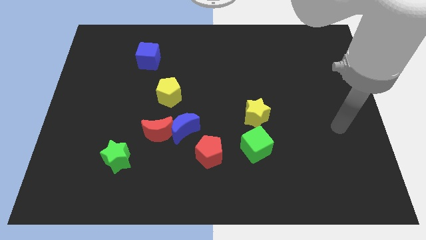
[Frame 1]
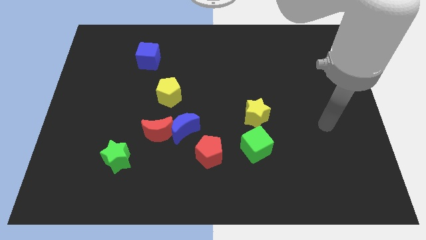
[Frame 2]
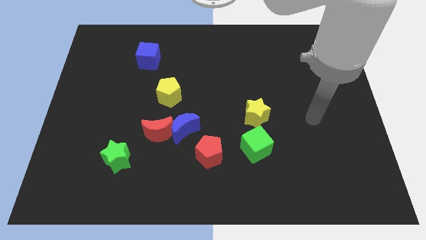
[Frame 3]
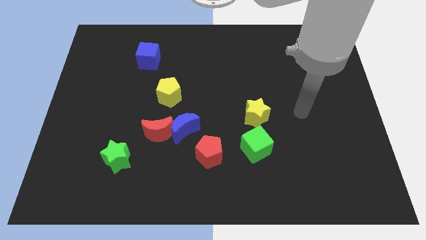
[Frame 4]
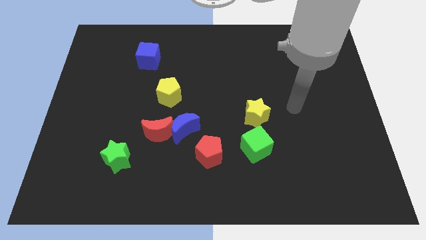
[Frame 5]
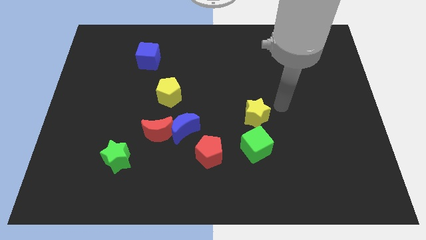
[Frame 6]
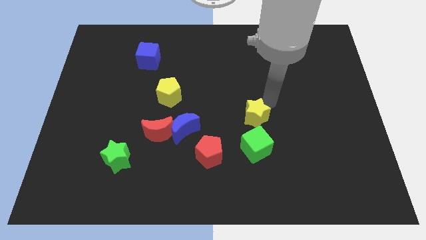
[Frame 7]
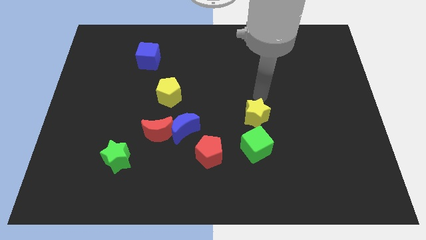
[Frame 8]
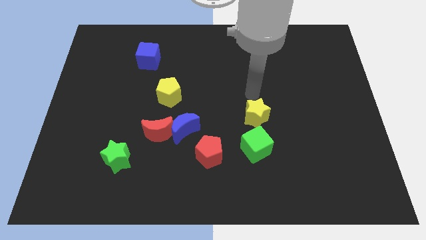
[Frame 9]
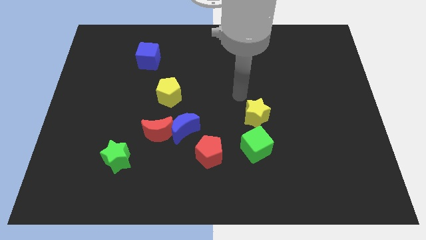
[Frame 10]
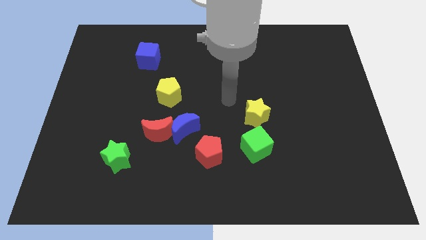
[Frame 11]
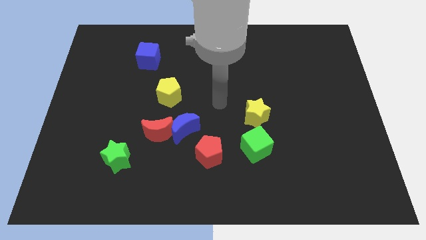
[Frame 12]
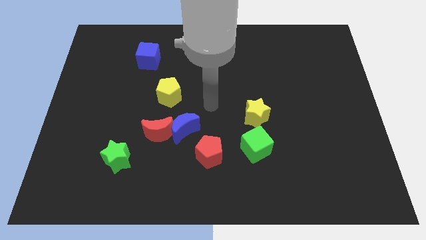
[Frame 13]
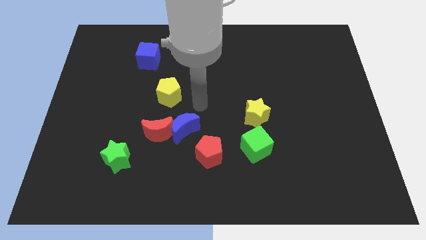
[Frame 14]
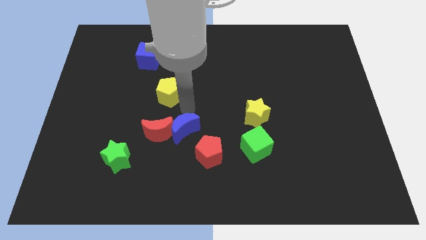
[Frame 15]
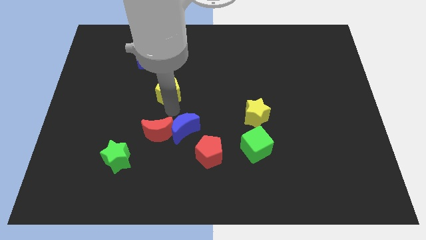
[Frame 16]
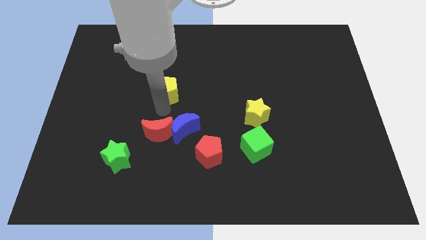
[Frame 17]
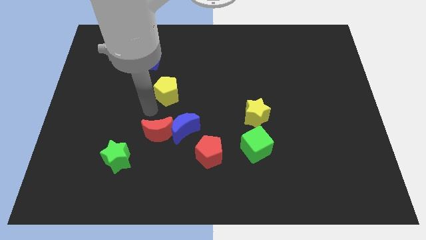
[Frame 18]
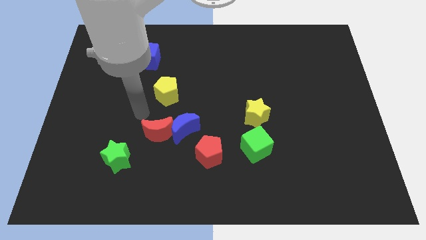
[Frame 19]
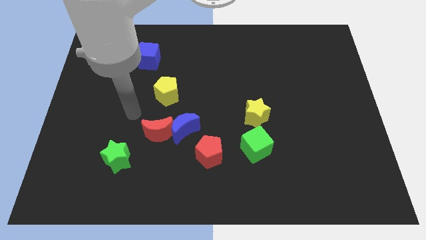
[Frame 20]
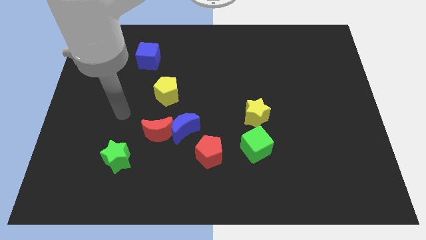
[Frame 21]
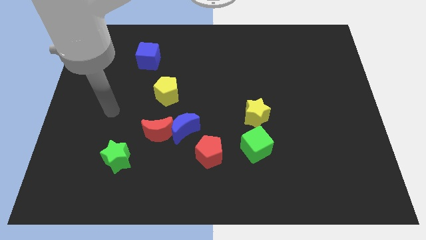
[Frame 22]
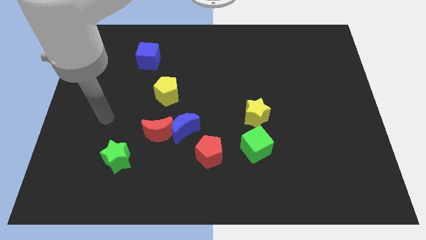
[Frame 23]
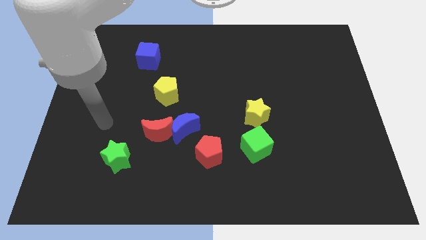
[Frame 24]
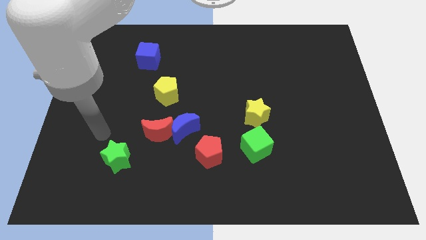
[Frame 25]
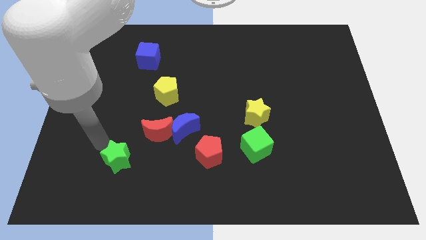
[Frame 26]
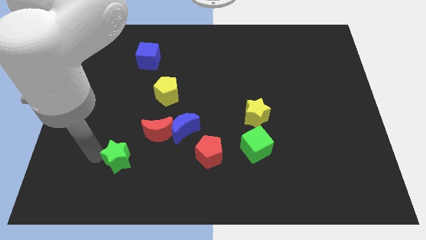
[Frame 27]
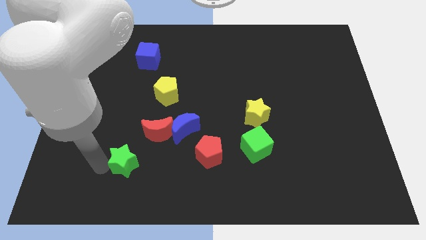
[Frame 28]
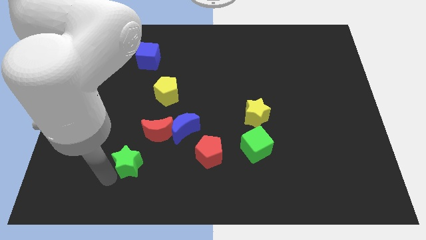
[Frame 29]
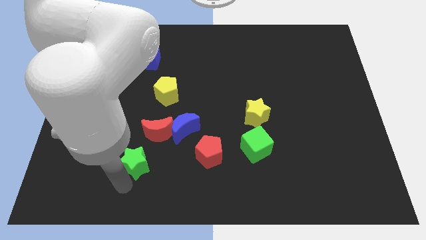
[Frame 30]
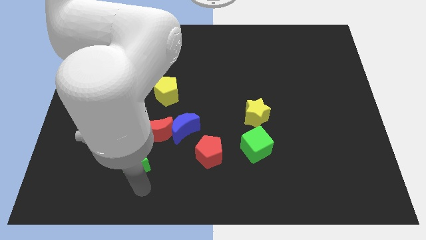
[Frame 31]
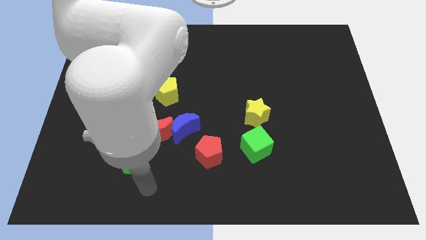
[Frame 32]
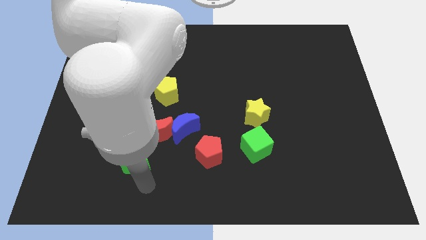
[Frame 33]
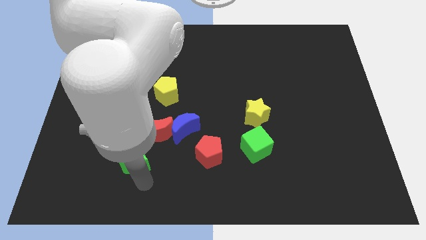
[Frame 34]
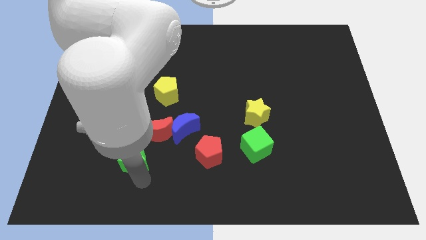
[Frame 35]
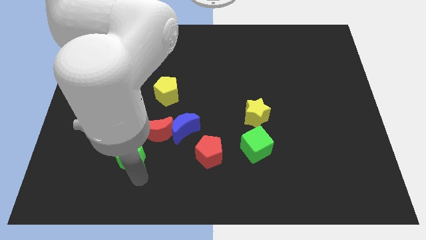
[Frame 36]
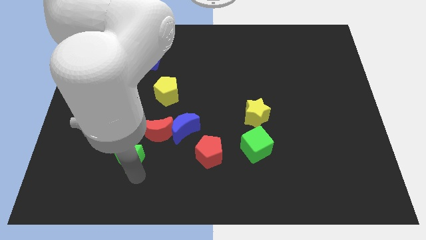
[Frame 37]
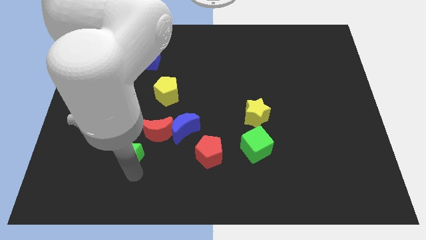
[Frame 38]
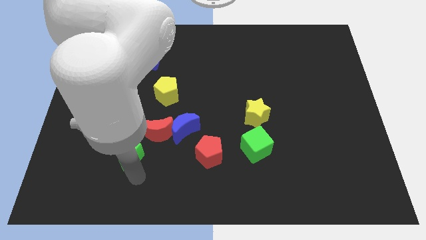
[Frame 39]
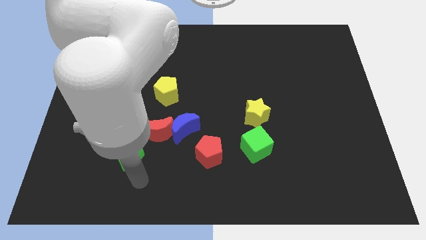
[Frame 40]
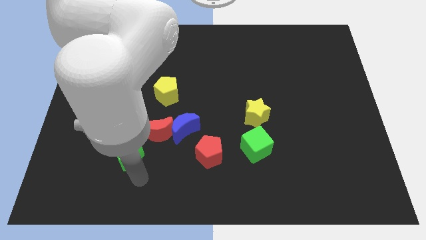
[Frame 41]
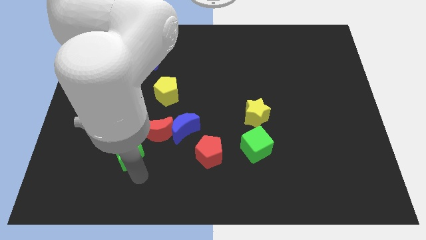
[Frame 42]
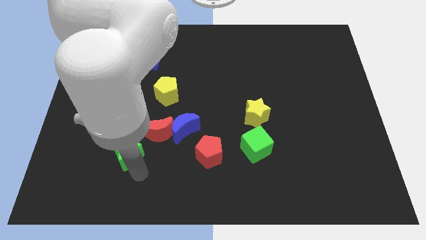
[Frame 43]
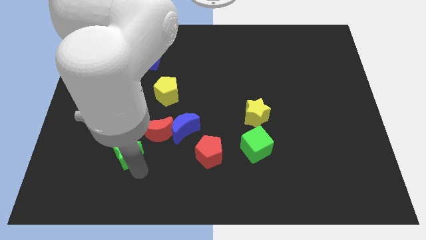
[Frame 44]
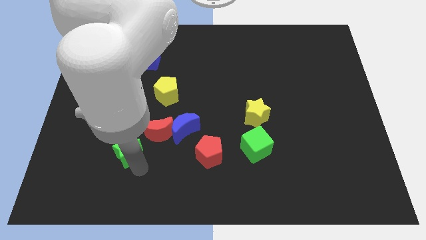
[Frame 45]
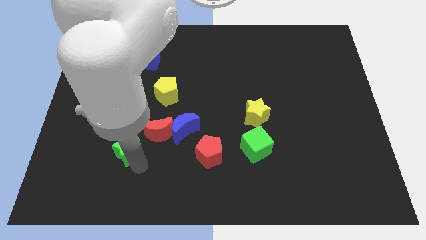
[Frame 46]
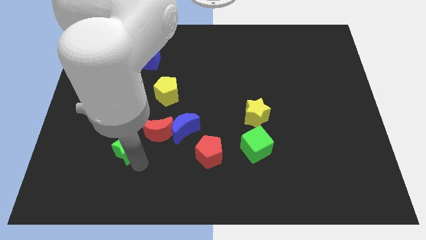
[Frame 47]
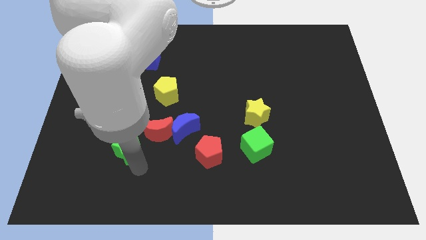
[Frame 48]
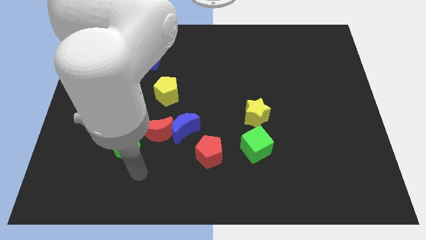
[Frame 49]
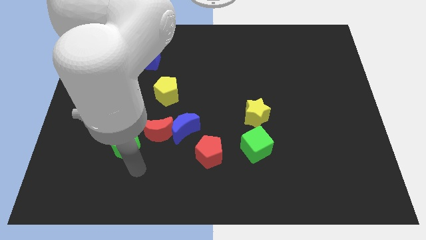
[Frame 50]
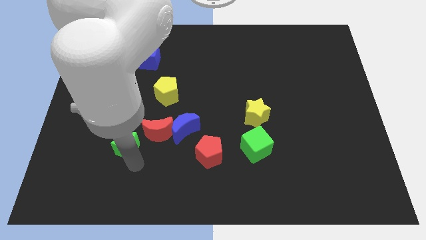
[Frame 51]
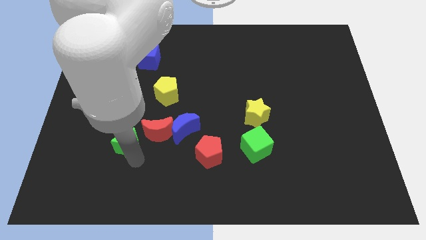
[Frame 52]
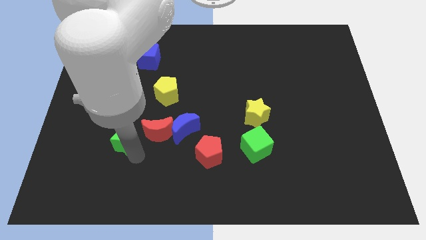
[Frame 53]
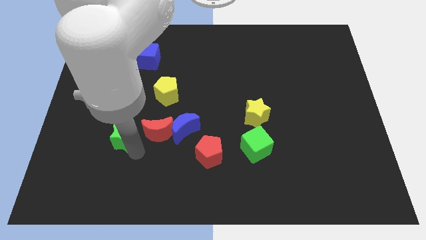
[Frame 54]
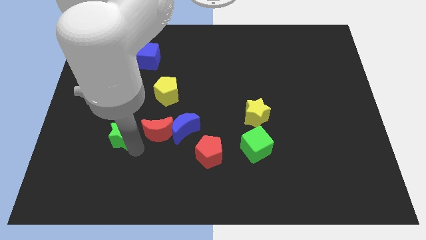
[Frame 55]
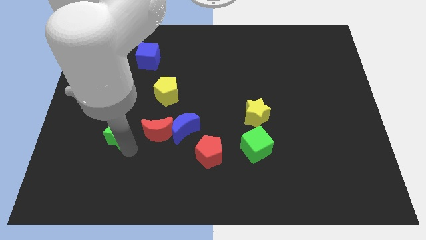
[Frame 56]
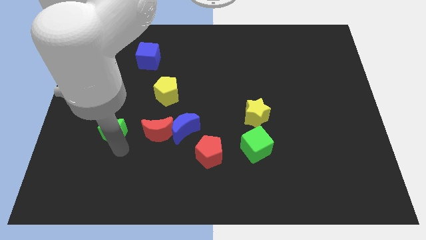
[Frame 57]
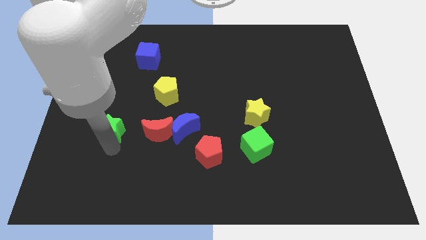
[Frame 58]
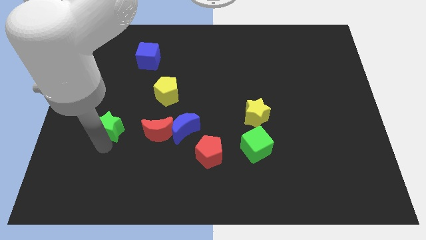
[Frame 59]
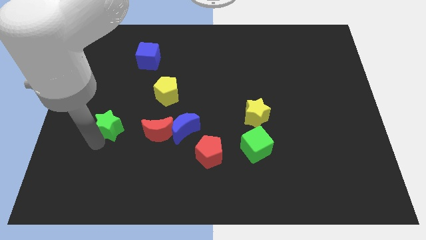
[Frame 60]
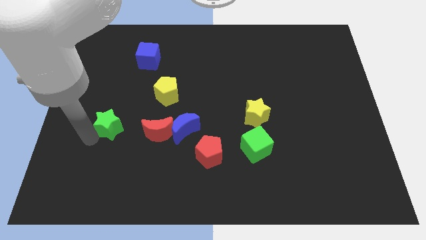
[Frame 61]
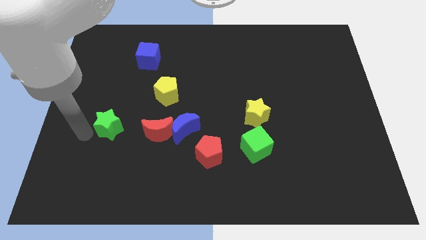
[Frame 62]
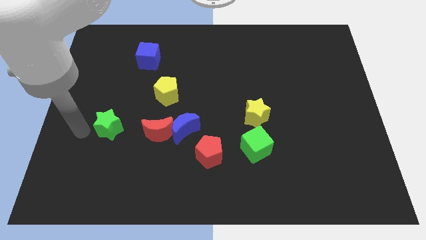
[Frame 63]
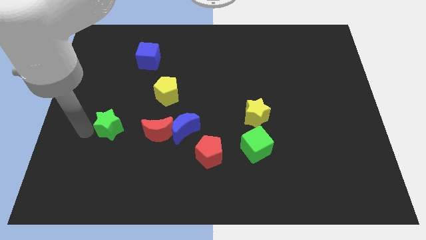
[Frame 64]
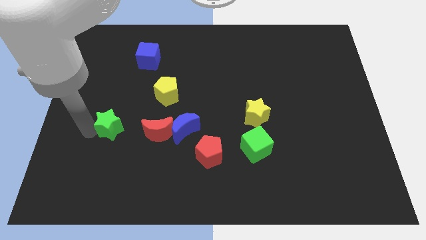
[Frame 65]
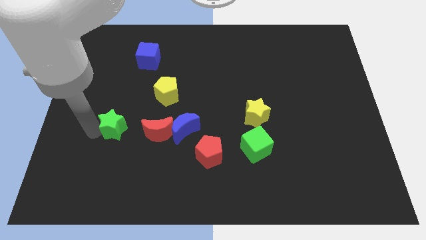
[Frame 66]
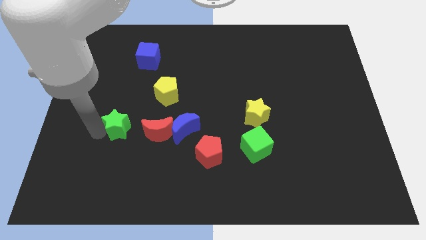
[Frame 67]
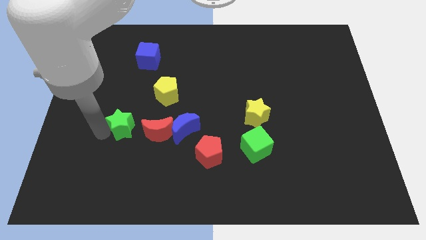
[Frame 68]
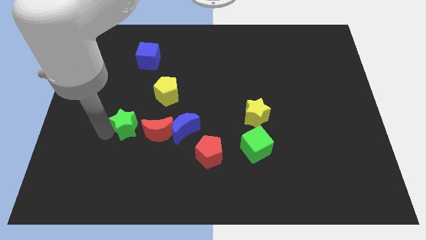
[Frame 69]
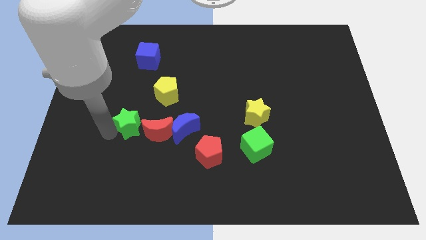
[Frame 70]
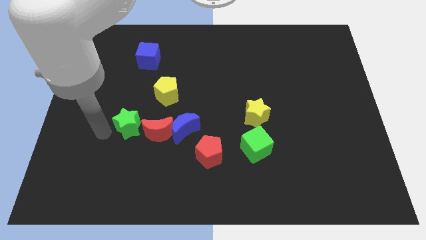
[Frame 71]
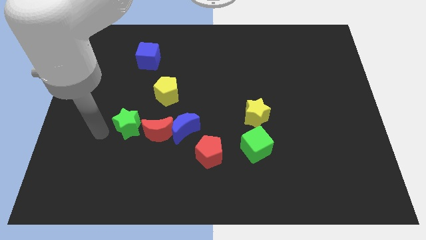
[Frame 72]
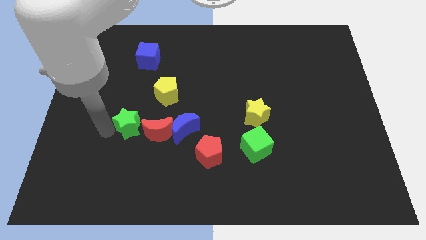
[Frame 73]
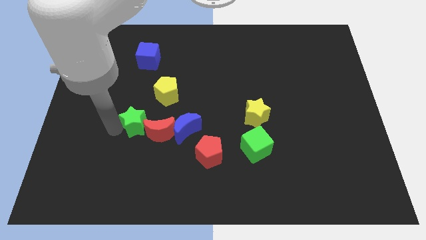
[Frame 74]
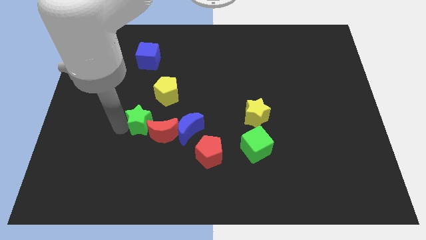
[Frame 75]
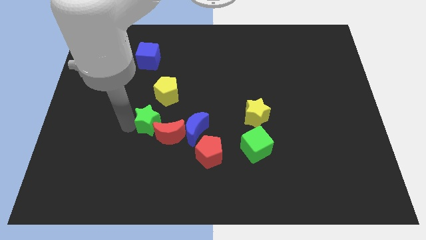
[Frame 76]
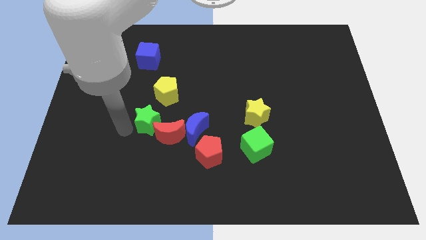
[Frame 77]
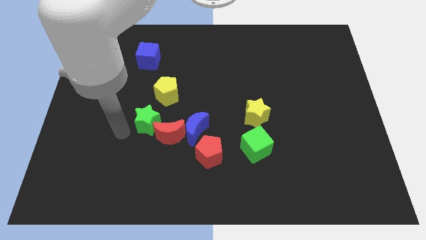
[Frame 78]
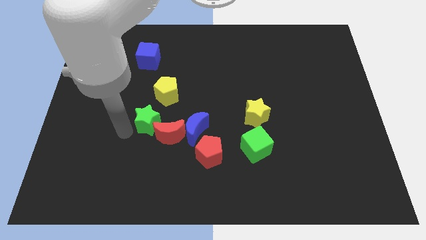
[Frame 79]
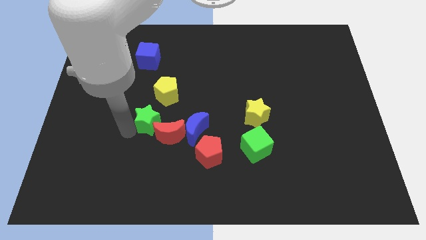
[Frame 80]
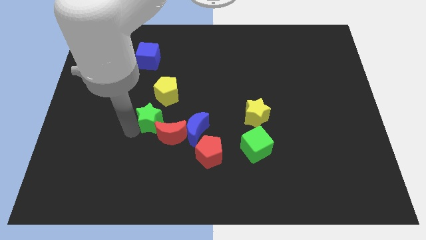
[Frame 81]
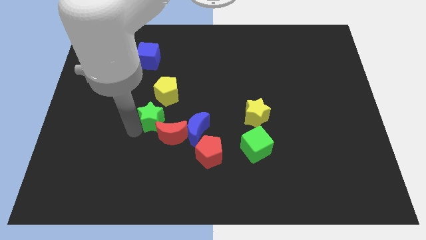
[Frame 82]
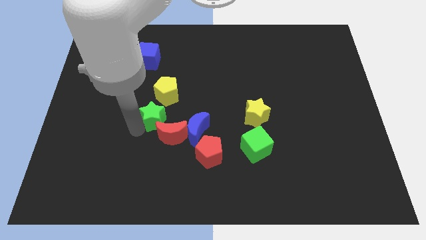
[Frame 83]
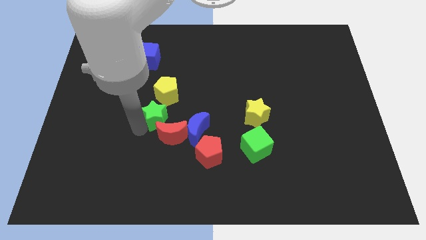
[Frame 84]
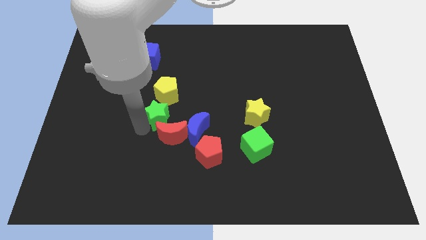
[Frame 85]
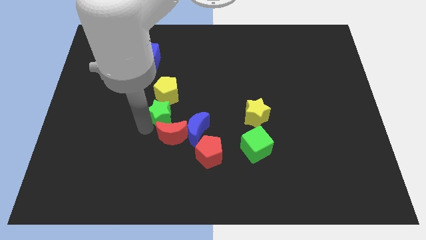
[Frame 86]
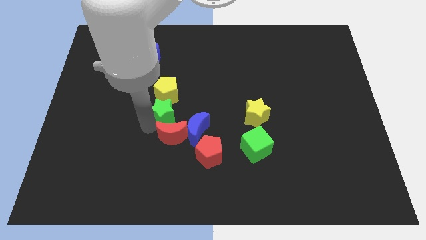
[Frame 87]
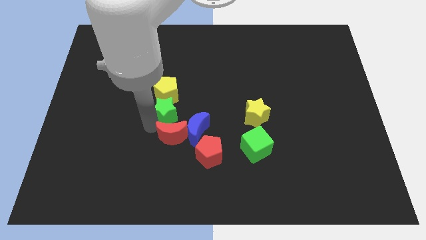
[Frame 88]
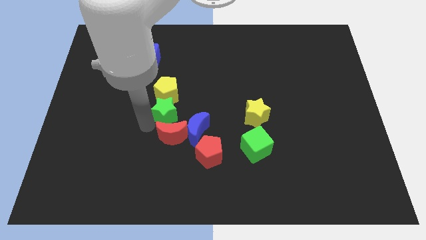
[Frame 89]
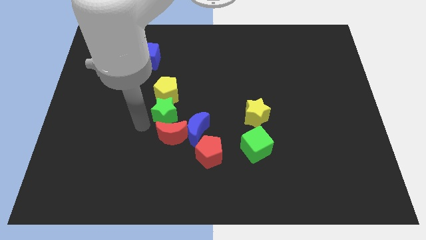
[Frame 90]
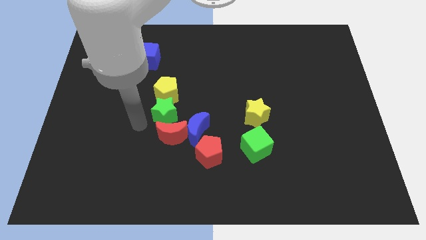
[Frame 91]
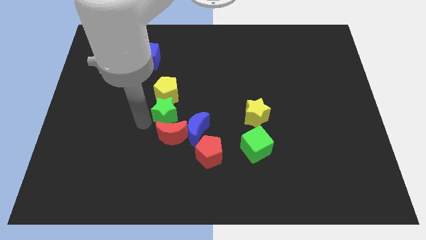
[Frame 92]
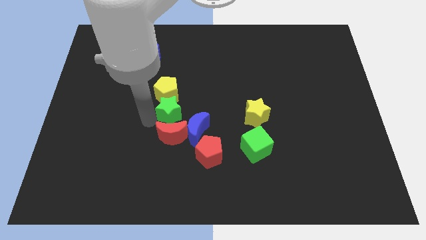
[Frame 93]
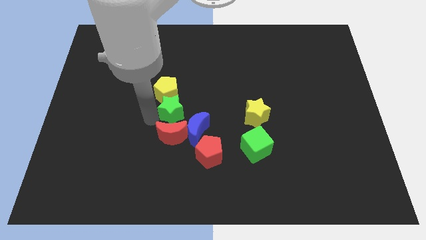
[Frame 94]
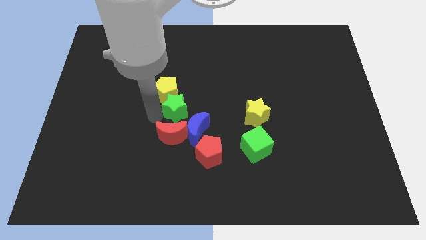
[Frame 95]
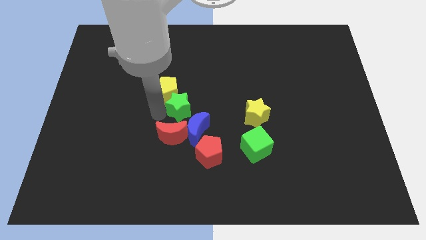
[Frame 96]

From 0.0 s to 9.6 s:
slide the green star to the right of the yellow pentagon
